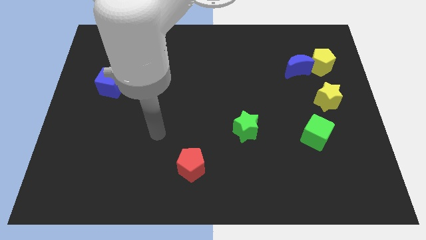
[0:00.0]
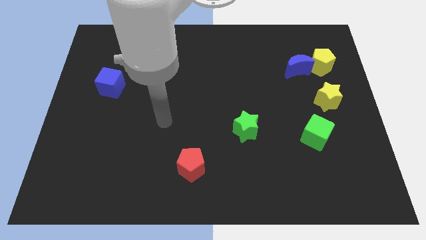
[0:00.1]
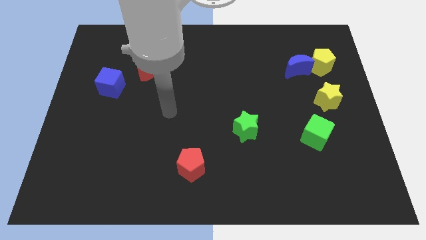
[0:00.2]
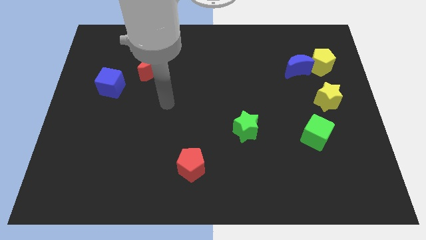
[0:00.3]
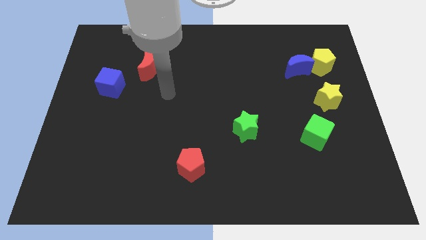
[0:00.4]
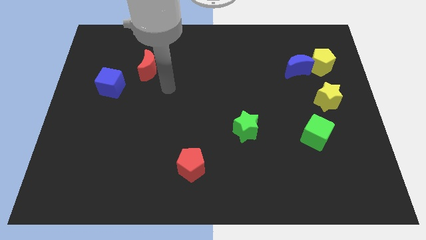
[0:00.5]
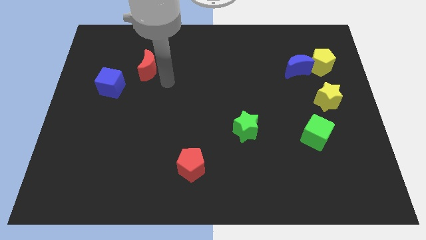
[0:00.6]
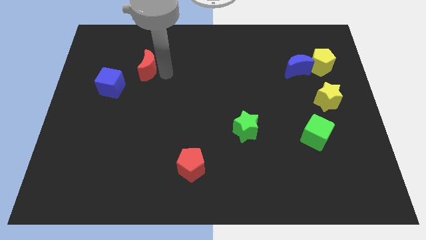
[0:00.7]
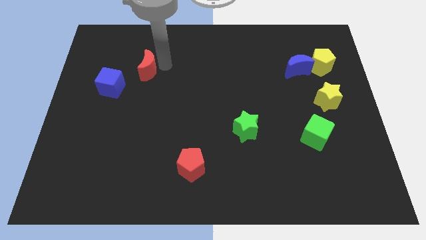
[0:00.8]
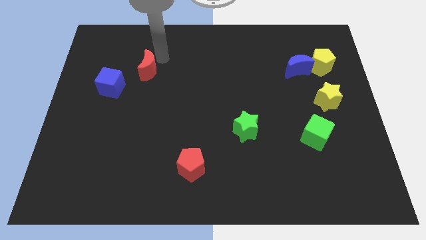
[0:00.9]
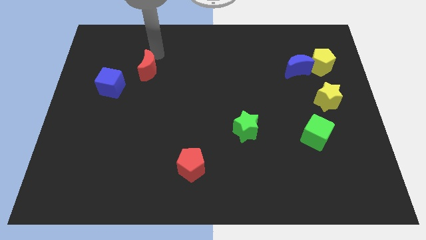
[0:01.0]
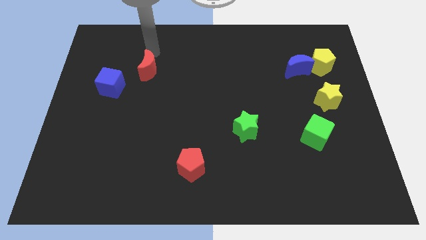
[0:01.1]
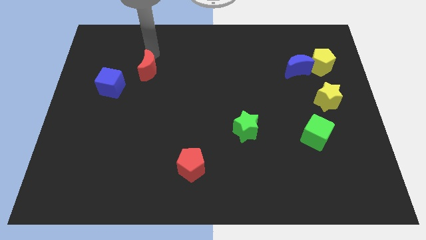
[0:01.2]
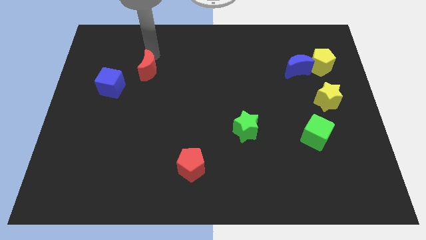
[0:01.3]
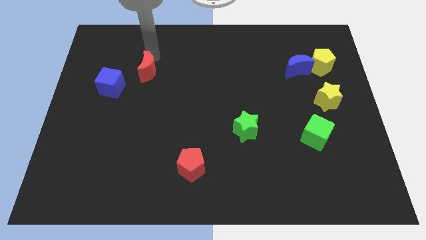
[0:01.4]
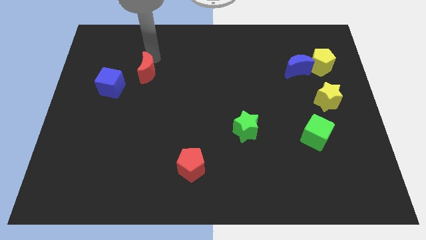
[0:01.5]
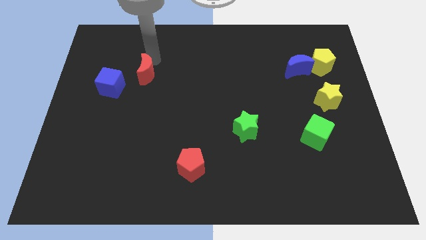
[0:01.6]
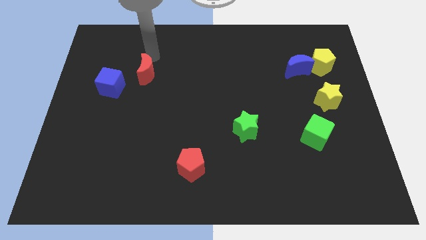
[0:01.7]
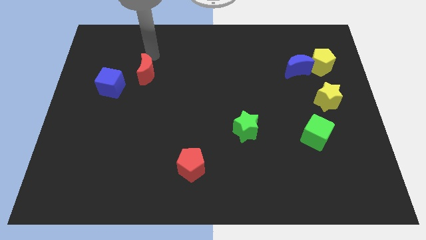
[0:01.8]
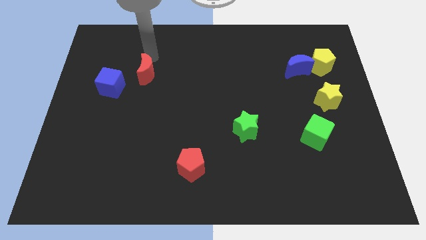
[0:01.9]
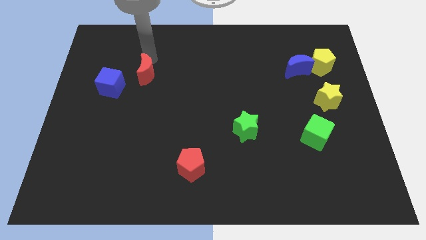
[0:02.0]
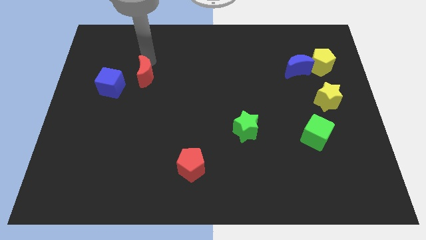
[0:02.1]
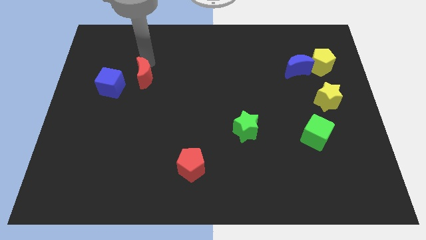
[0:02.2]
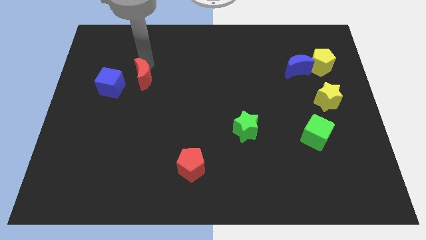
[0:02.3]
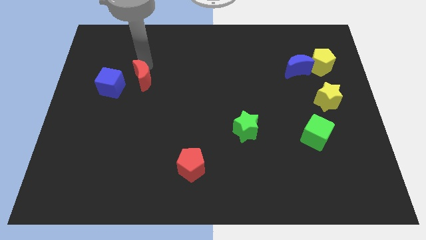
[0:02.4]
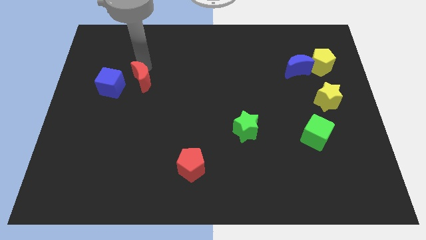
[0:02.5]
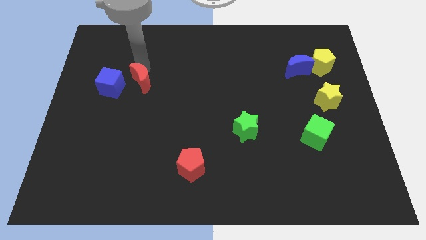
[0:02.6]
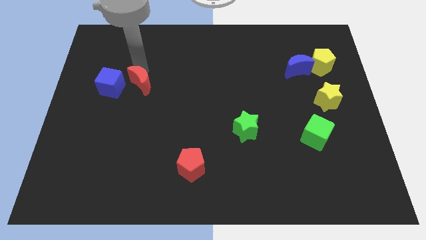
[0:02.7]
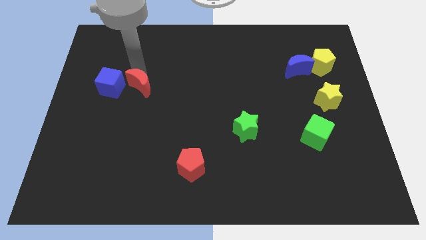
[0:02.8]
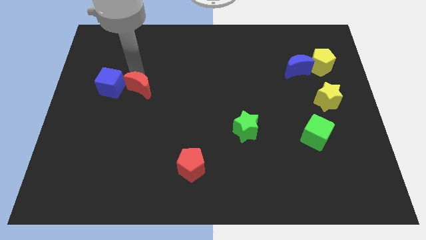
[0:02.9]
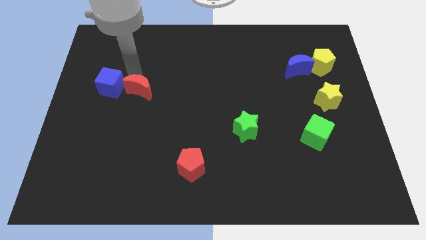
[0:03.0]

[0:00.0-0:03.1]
slightly move the red moon down

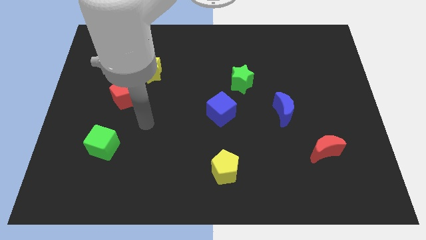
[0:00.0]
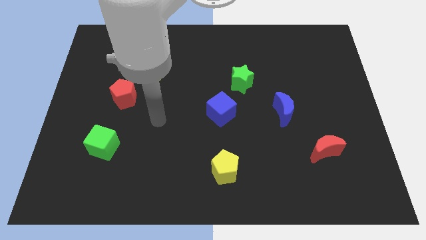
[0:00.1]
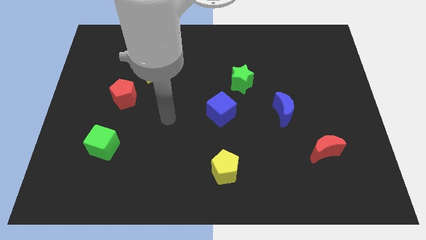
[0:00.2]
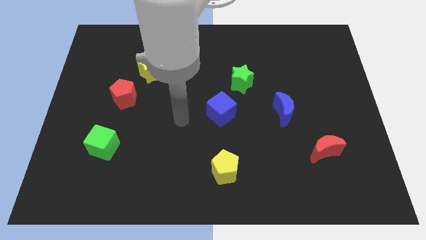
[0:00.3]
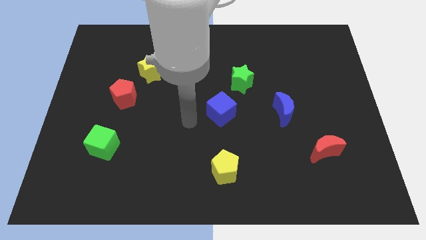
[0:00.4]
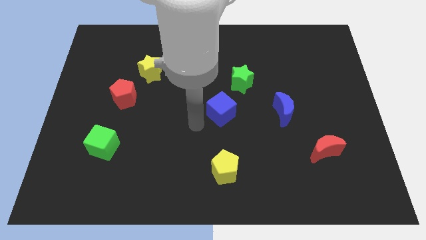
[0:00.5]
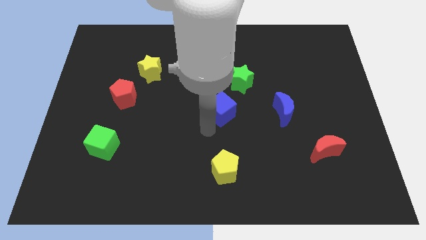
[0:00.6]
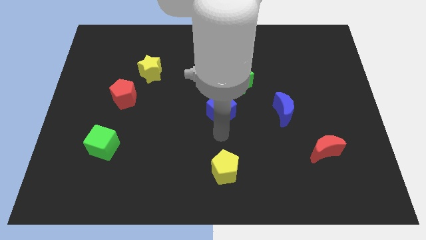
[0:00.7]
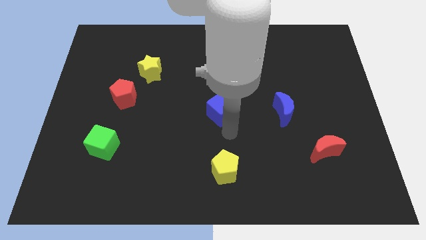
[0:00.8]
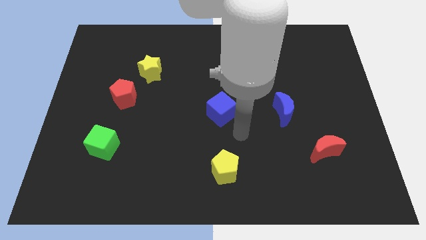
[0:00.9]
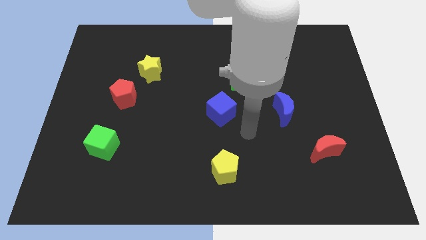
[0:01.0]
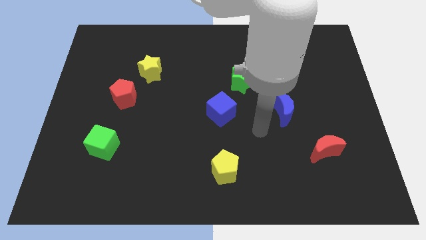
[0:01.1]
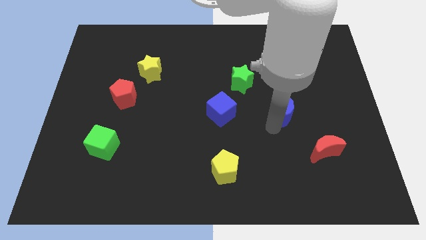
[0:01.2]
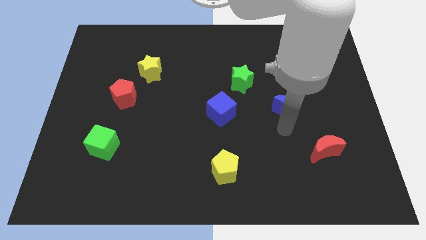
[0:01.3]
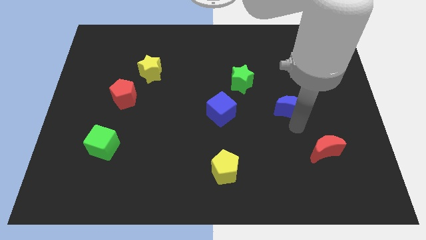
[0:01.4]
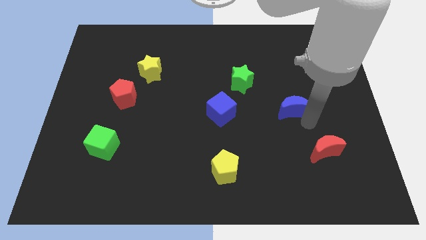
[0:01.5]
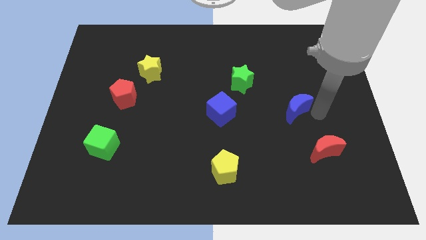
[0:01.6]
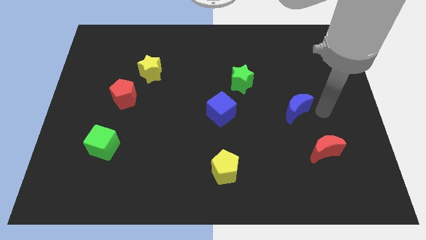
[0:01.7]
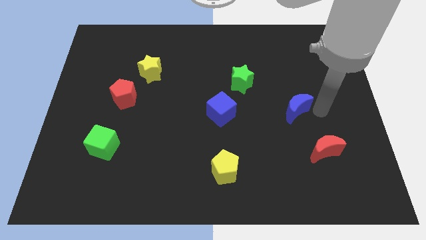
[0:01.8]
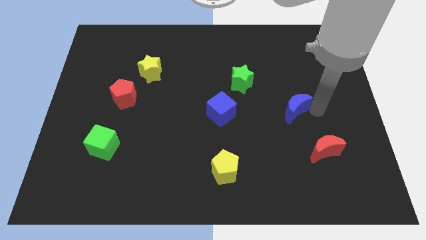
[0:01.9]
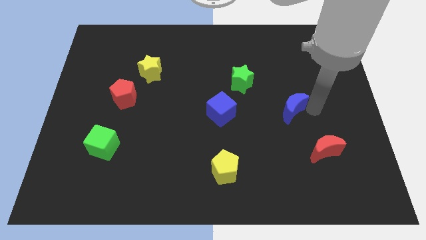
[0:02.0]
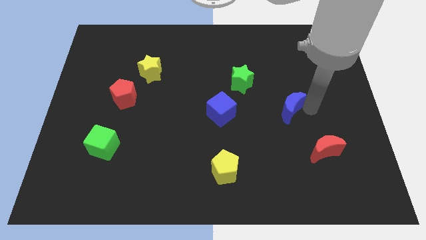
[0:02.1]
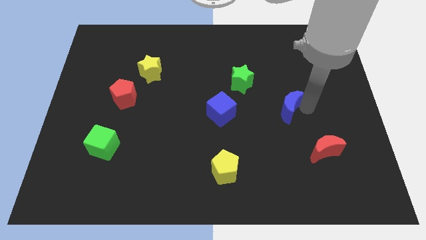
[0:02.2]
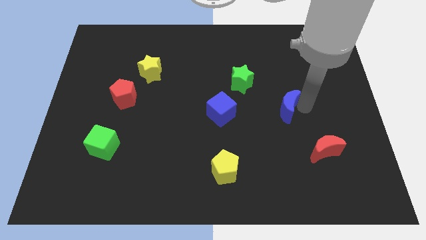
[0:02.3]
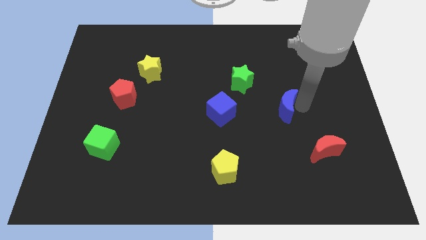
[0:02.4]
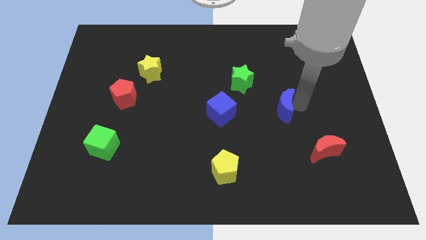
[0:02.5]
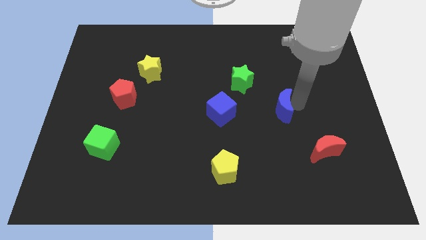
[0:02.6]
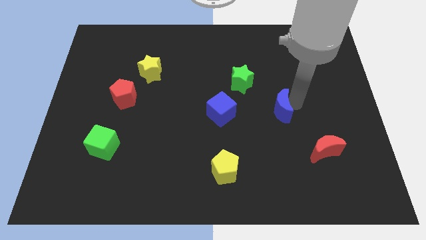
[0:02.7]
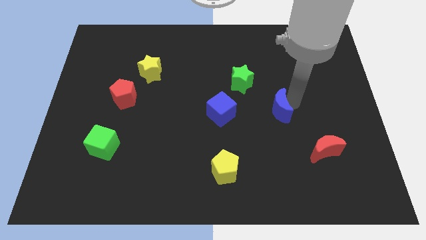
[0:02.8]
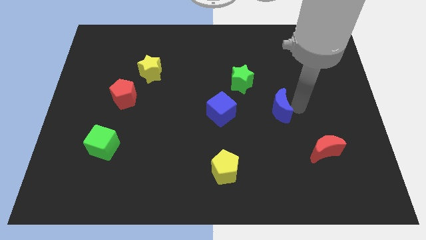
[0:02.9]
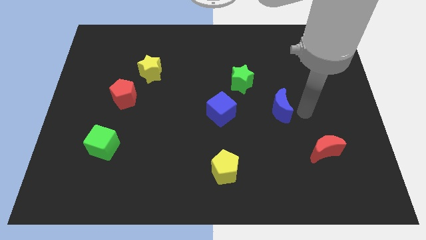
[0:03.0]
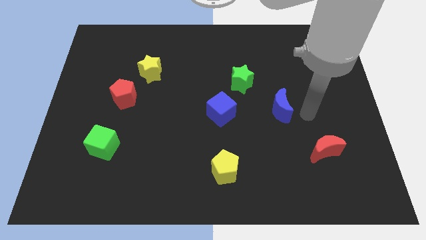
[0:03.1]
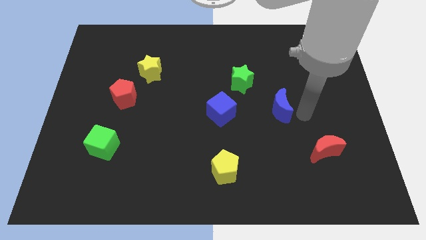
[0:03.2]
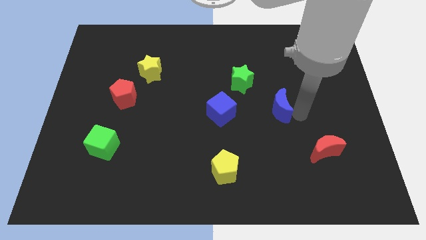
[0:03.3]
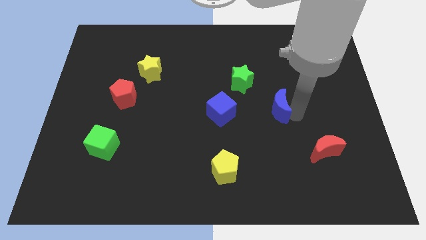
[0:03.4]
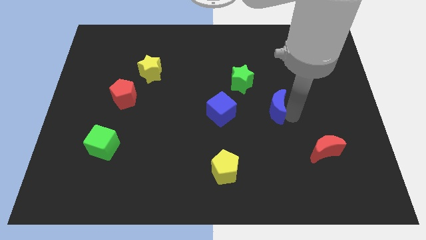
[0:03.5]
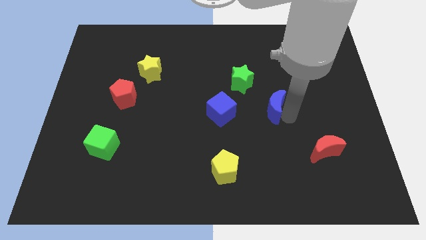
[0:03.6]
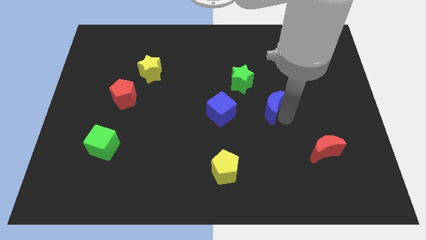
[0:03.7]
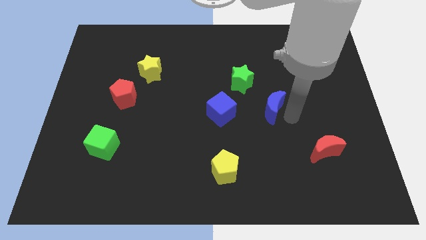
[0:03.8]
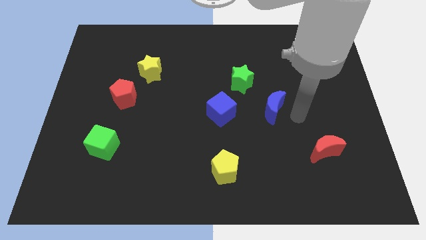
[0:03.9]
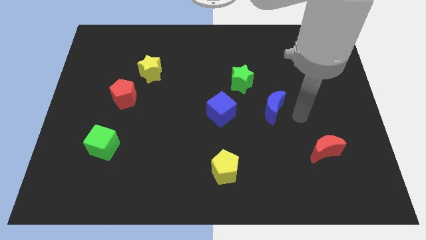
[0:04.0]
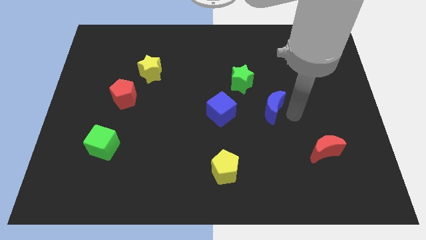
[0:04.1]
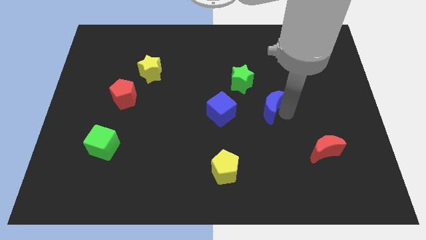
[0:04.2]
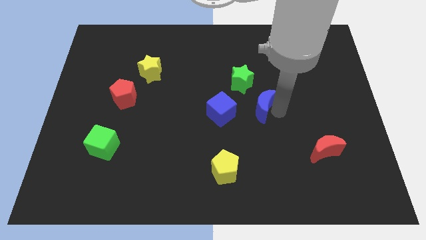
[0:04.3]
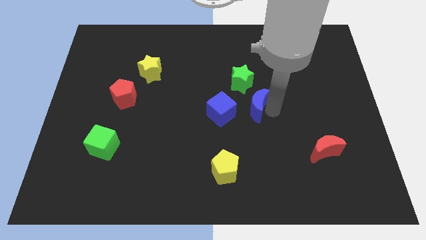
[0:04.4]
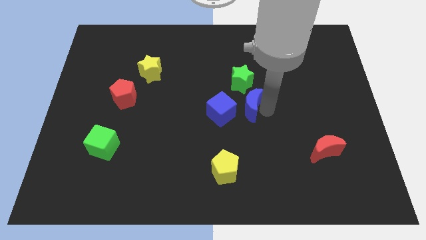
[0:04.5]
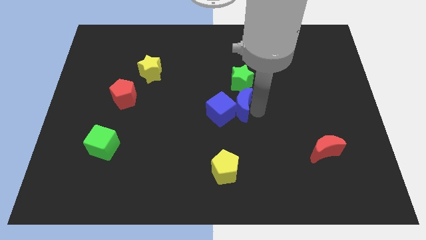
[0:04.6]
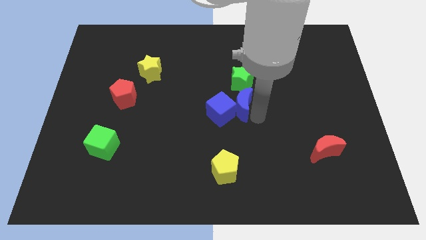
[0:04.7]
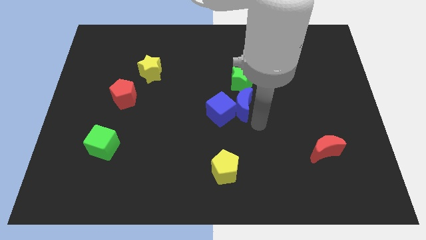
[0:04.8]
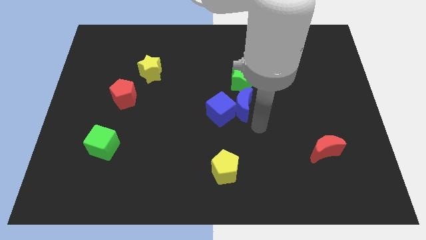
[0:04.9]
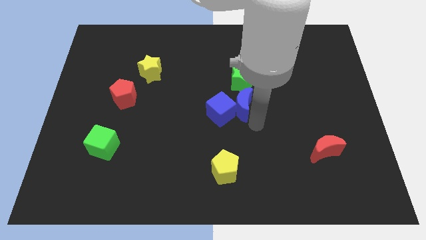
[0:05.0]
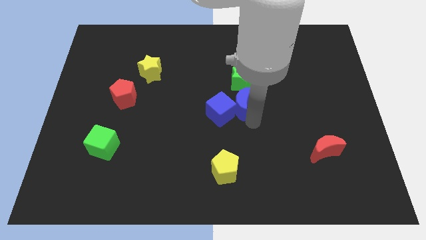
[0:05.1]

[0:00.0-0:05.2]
slide the blue moon a little up and to the left
